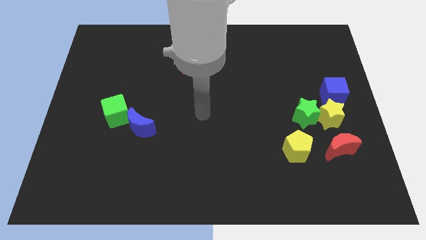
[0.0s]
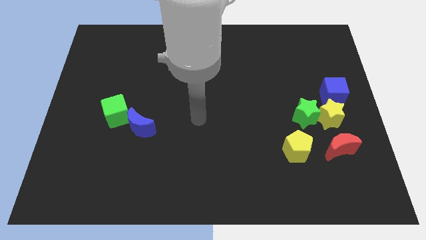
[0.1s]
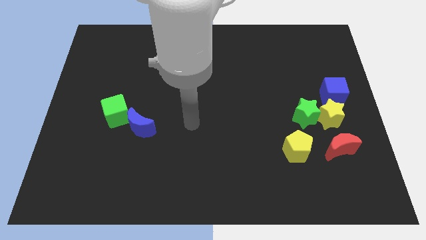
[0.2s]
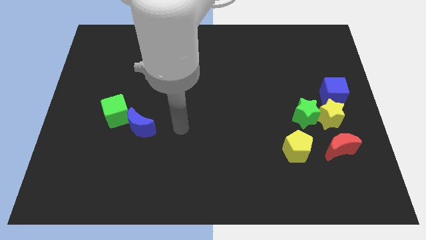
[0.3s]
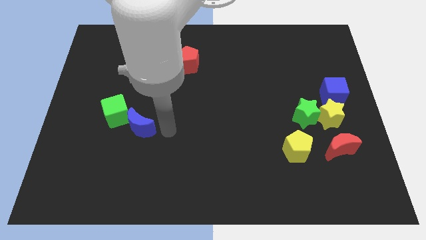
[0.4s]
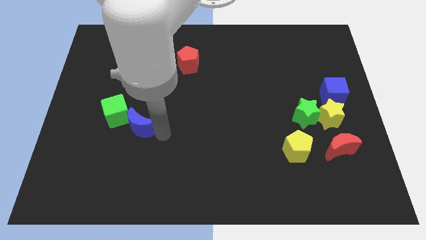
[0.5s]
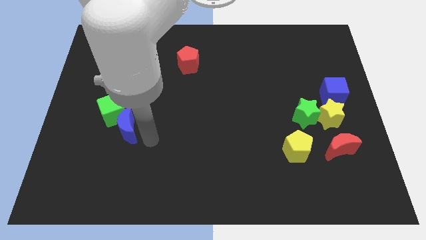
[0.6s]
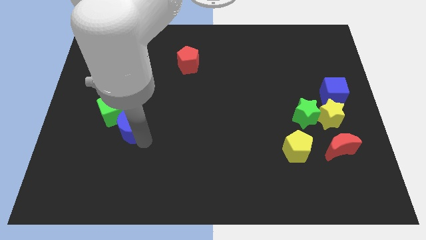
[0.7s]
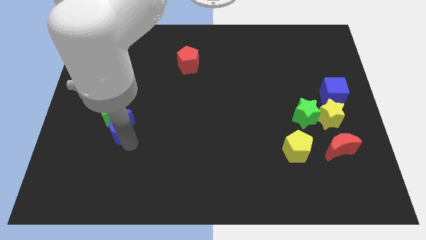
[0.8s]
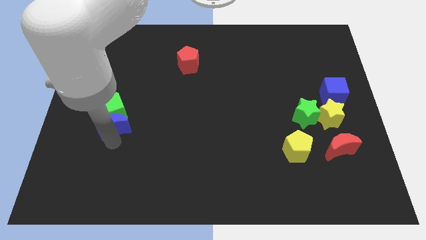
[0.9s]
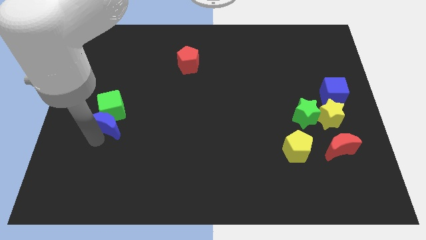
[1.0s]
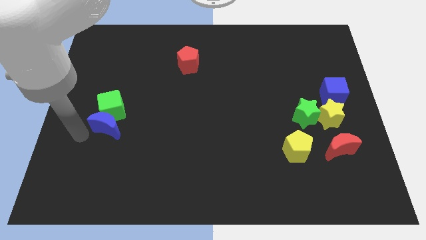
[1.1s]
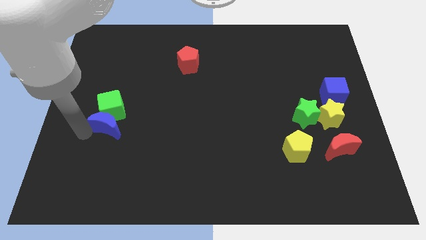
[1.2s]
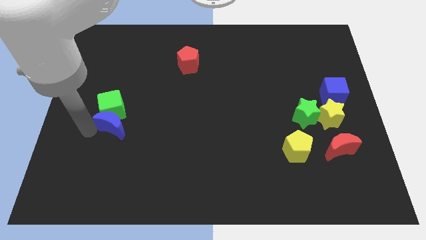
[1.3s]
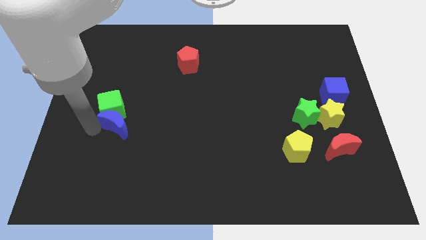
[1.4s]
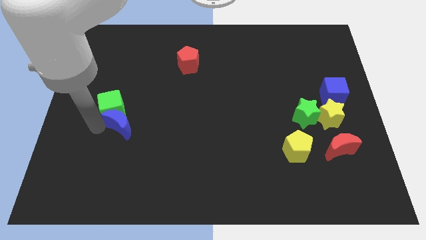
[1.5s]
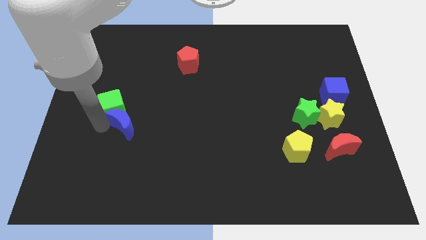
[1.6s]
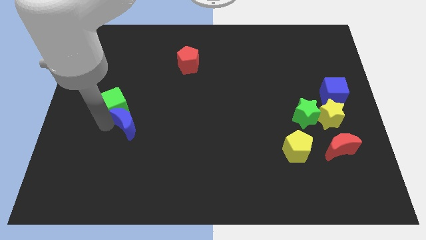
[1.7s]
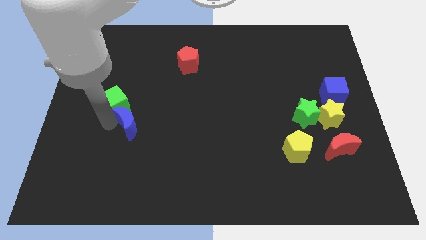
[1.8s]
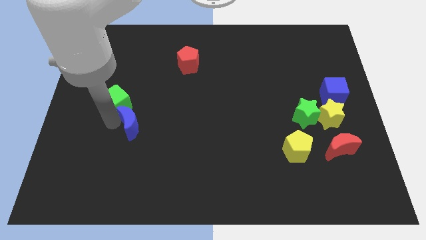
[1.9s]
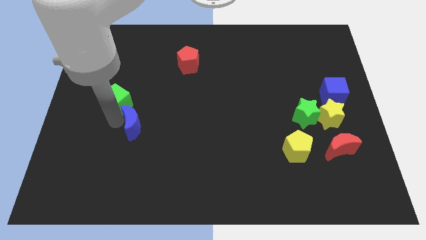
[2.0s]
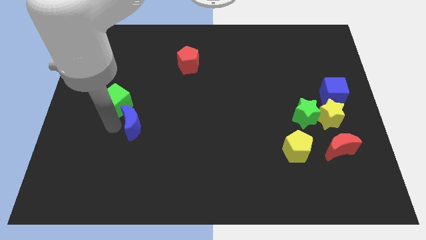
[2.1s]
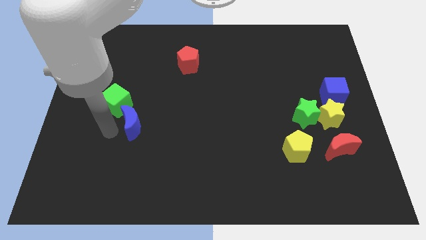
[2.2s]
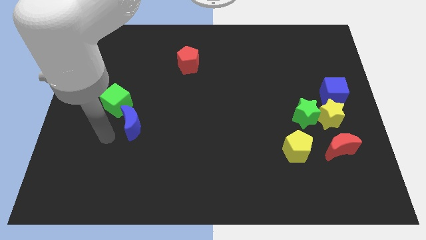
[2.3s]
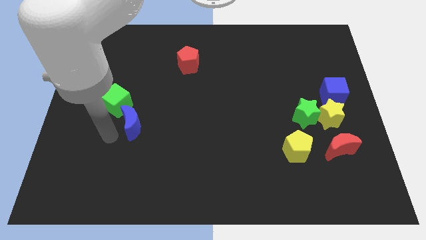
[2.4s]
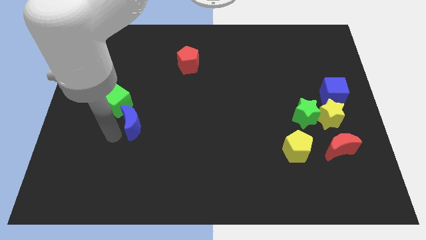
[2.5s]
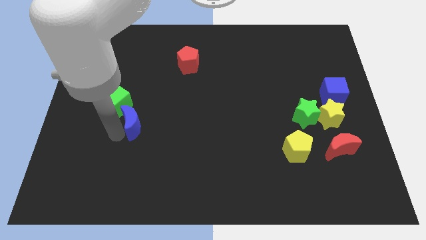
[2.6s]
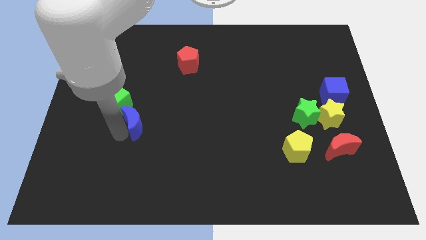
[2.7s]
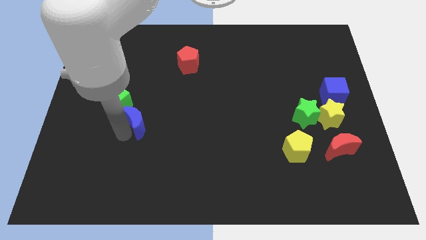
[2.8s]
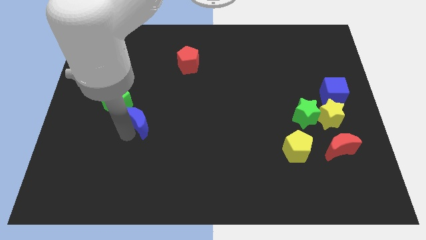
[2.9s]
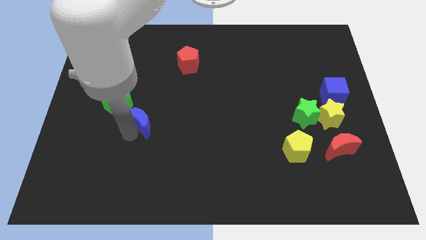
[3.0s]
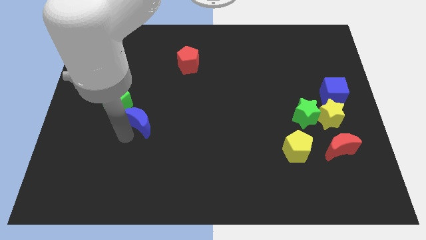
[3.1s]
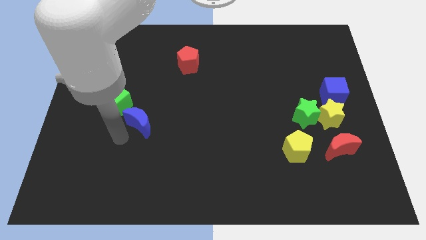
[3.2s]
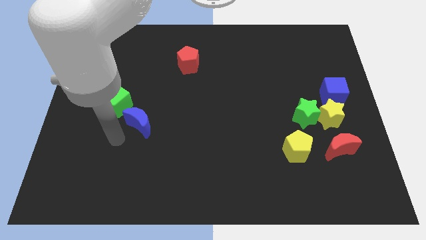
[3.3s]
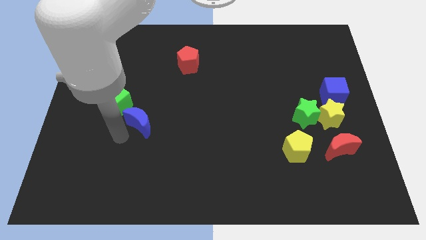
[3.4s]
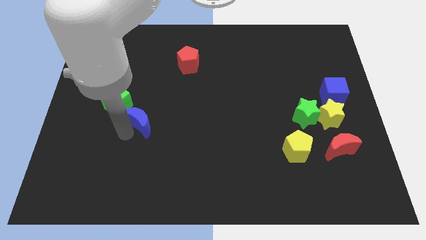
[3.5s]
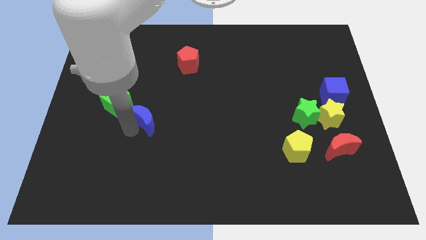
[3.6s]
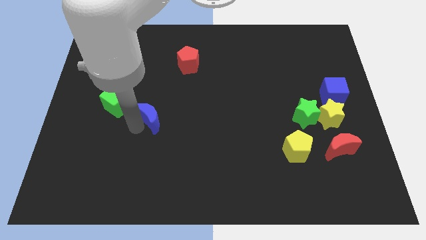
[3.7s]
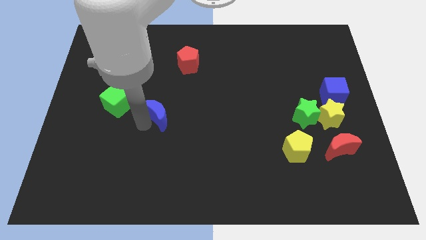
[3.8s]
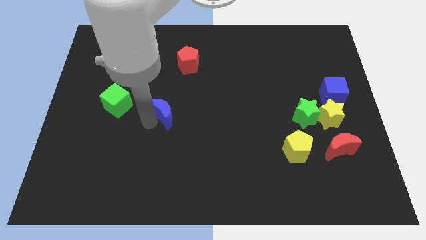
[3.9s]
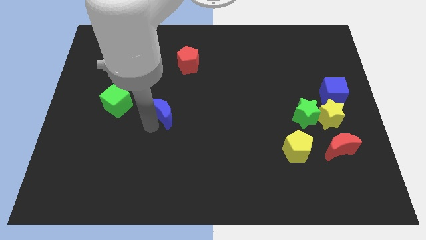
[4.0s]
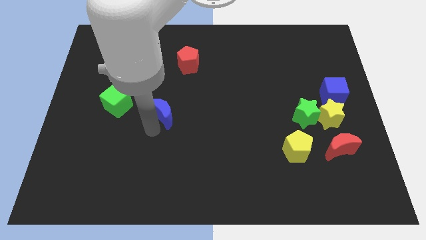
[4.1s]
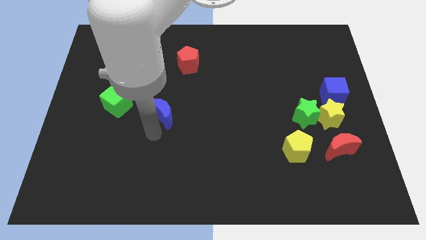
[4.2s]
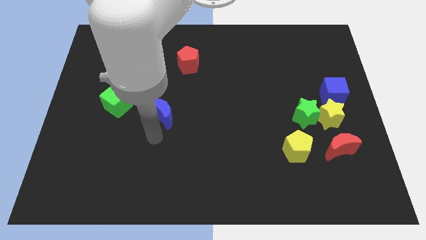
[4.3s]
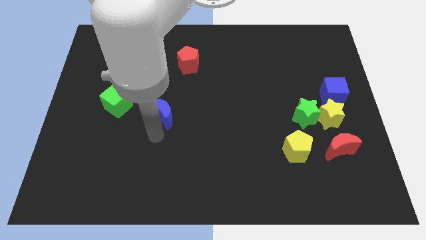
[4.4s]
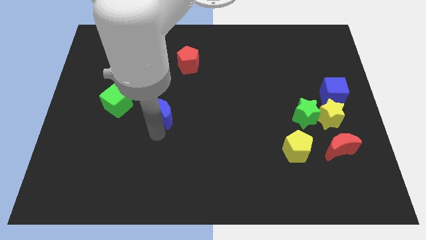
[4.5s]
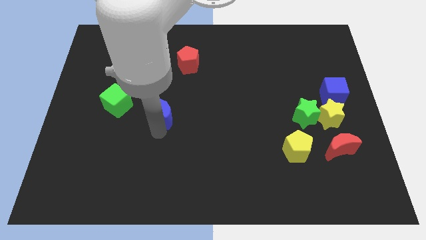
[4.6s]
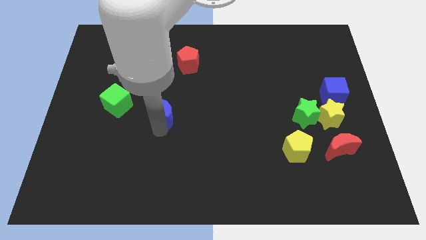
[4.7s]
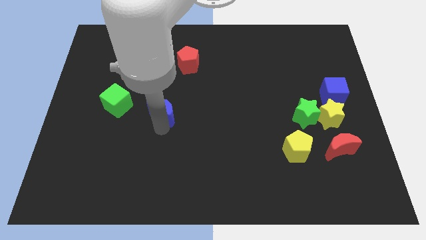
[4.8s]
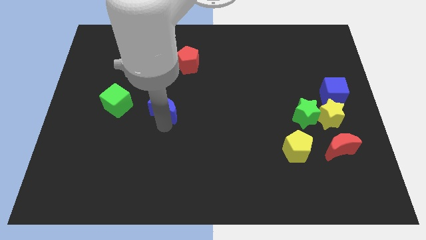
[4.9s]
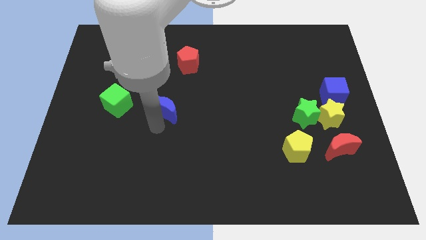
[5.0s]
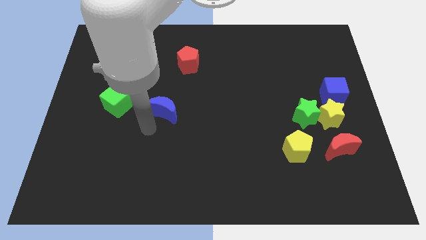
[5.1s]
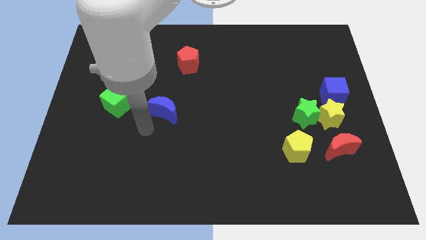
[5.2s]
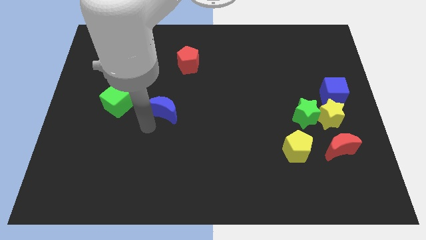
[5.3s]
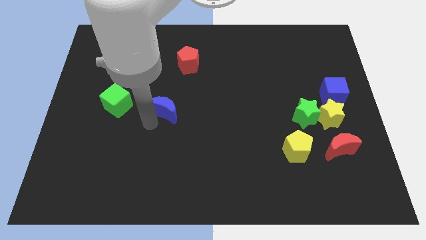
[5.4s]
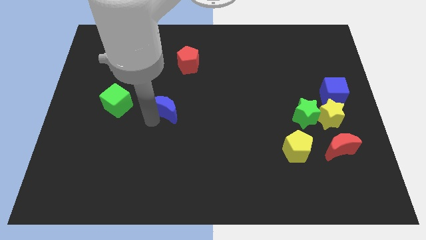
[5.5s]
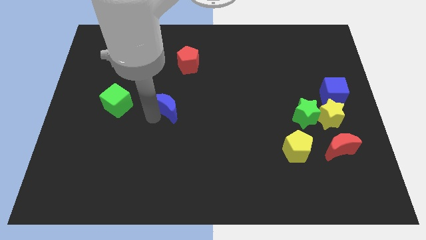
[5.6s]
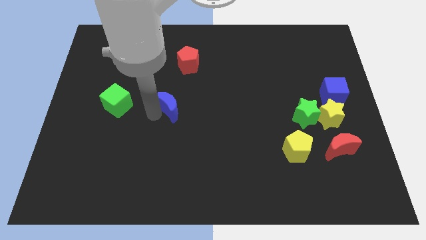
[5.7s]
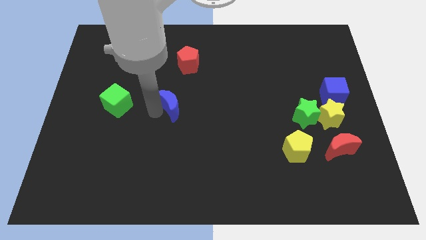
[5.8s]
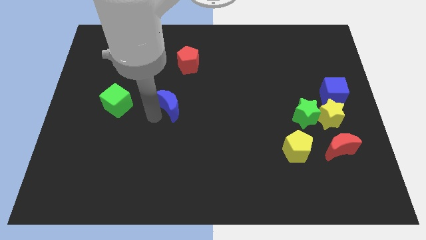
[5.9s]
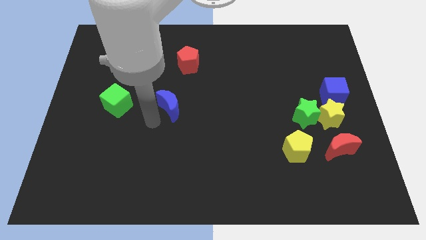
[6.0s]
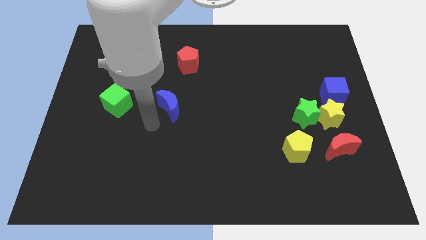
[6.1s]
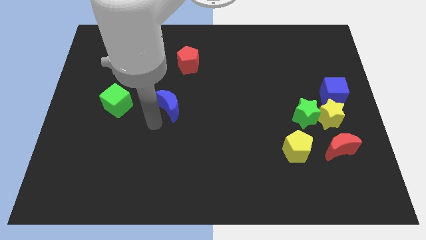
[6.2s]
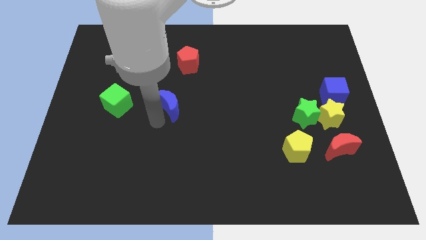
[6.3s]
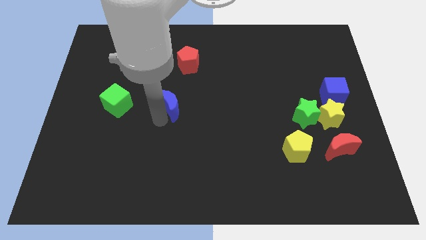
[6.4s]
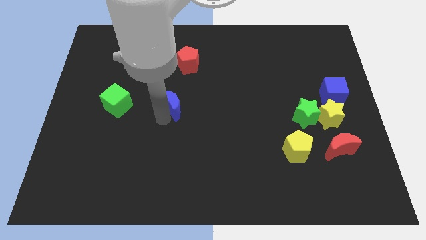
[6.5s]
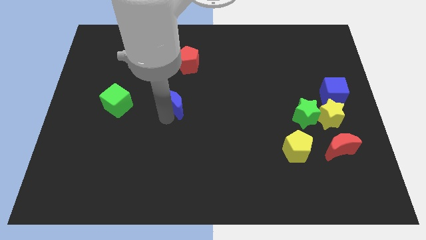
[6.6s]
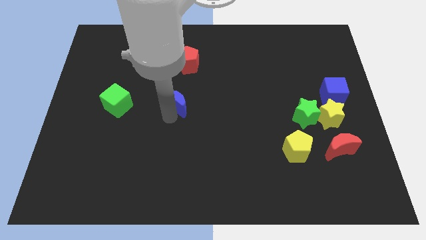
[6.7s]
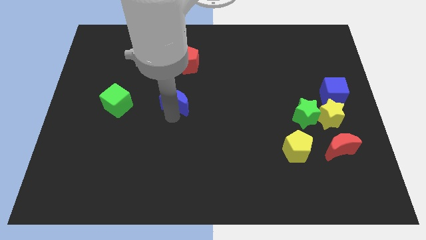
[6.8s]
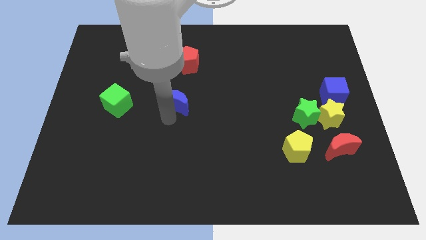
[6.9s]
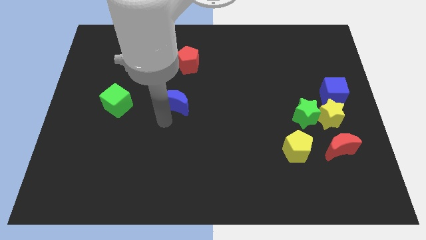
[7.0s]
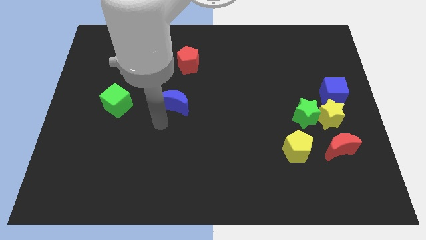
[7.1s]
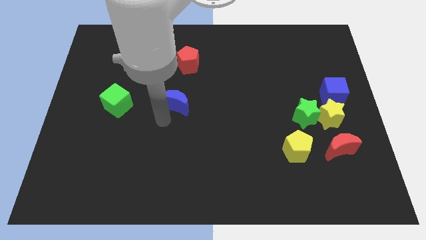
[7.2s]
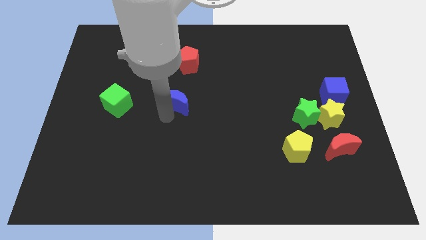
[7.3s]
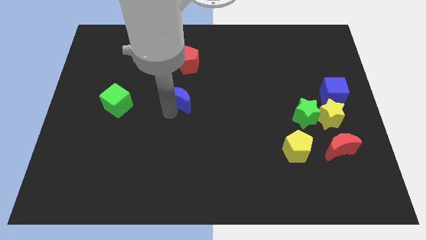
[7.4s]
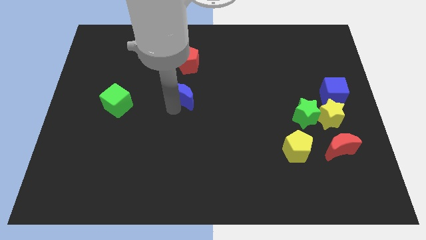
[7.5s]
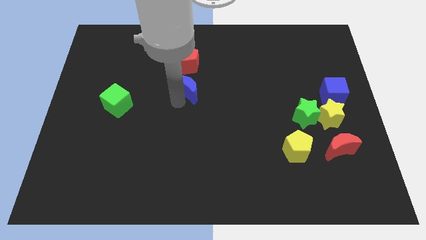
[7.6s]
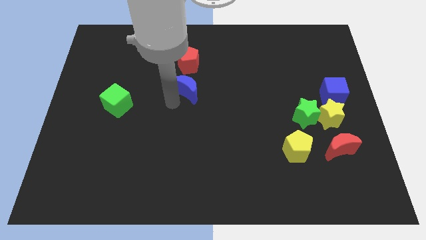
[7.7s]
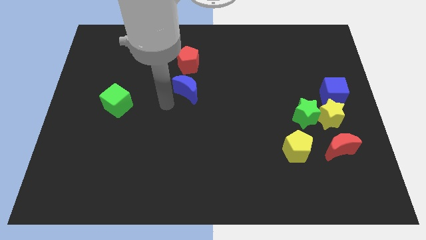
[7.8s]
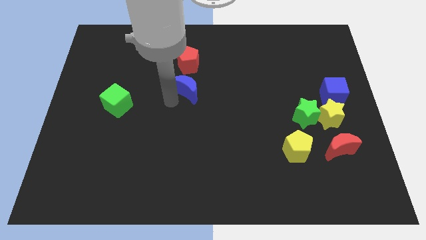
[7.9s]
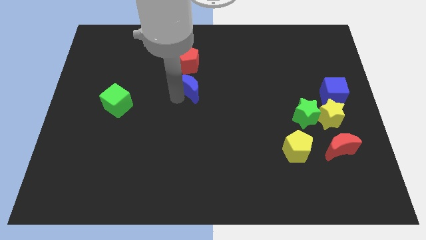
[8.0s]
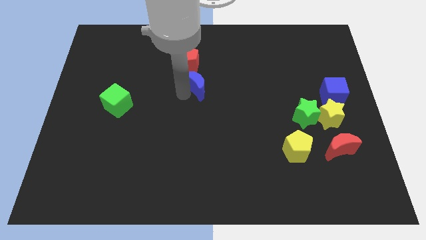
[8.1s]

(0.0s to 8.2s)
put the blue moon diagonally down and to the right of the red pentagon

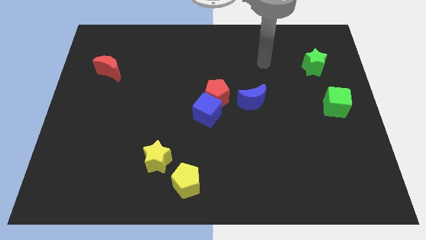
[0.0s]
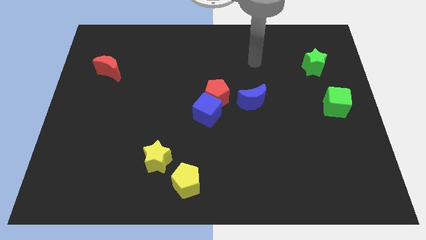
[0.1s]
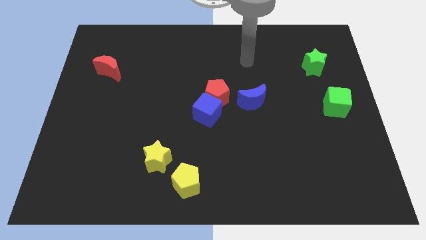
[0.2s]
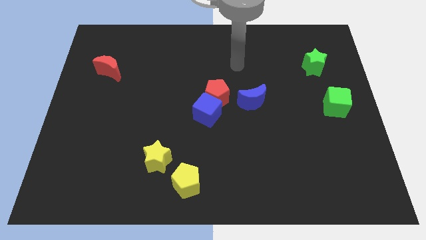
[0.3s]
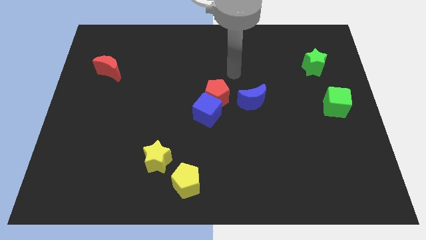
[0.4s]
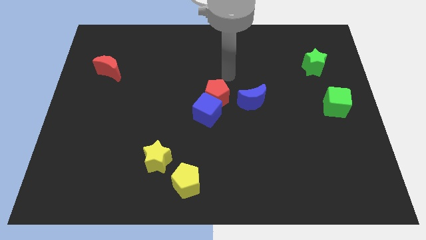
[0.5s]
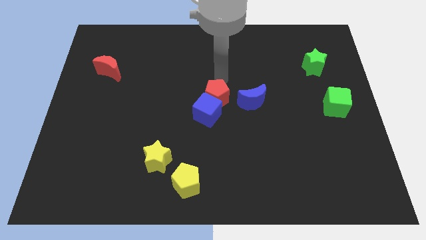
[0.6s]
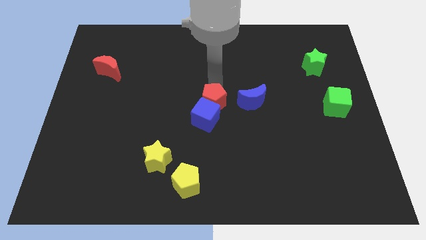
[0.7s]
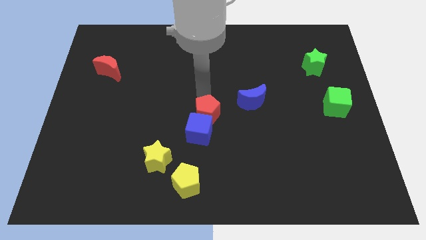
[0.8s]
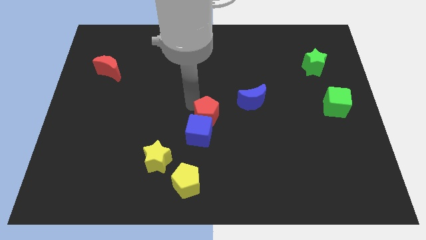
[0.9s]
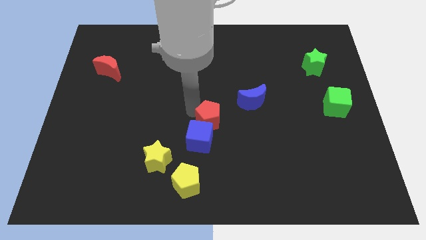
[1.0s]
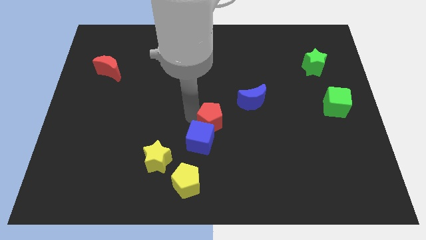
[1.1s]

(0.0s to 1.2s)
put the blue cube just right of the yellow star
